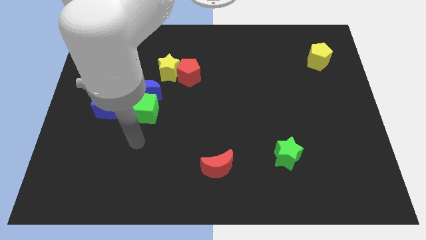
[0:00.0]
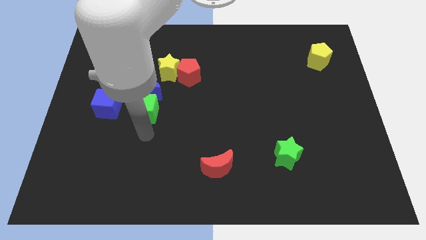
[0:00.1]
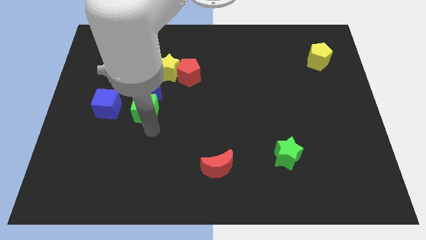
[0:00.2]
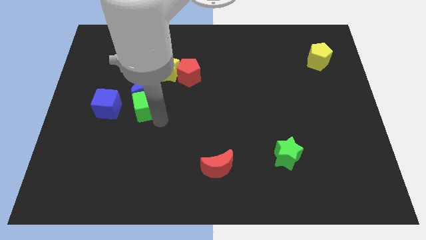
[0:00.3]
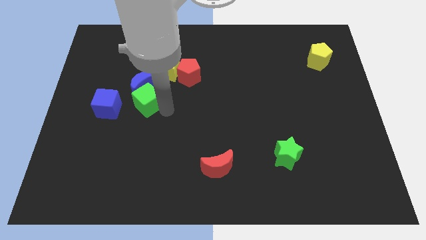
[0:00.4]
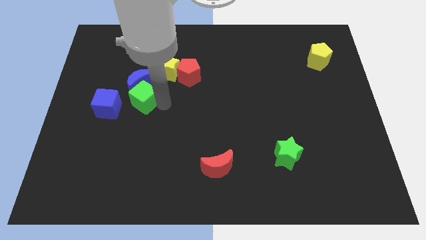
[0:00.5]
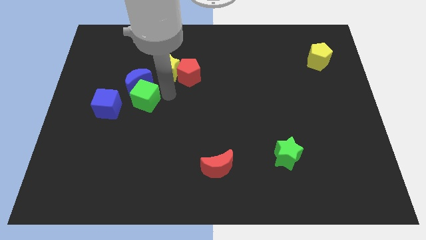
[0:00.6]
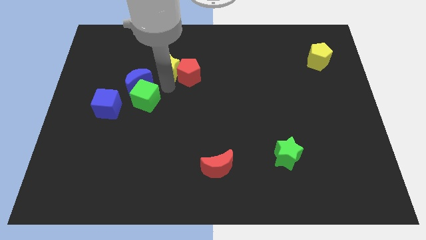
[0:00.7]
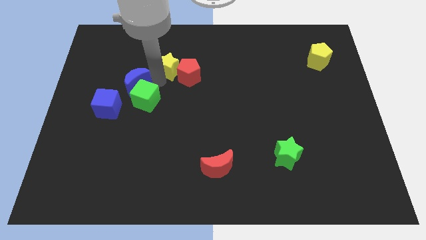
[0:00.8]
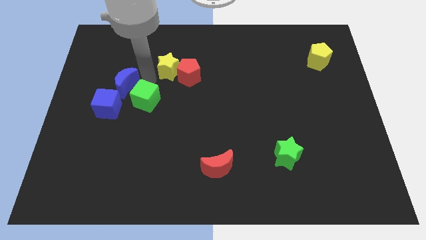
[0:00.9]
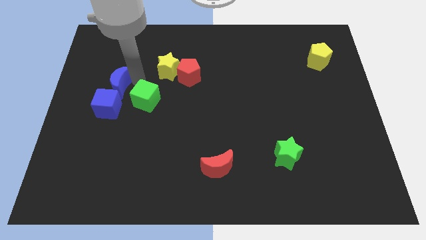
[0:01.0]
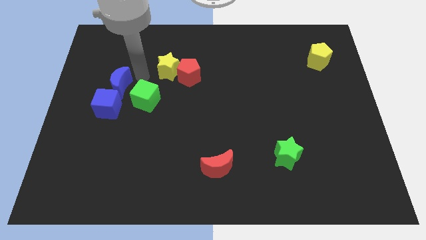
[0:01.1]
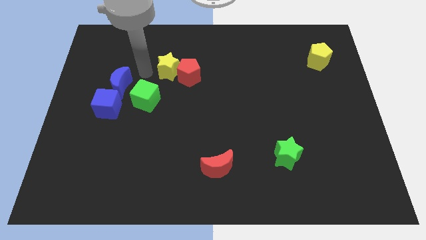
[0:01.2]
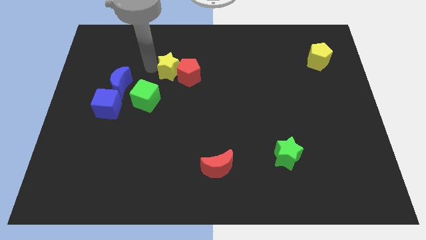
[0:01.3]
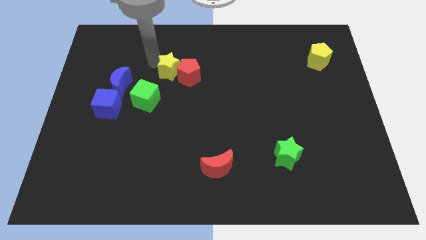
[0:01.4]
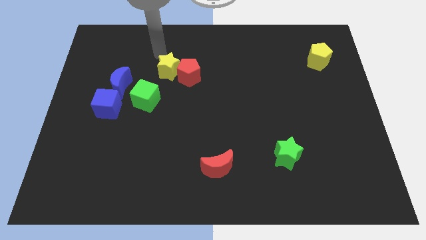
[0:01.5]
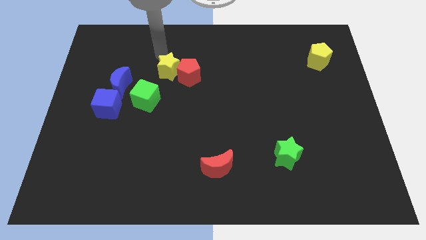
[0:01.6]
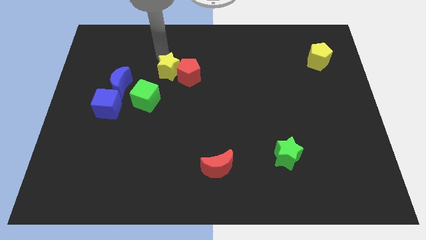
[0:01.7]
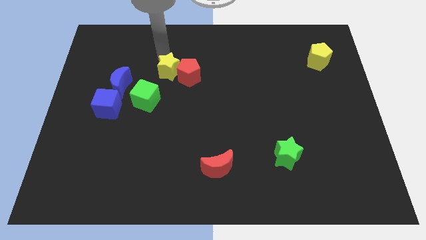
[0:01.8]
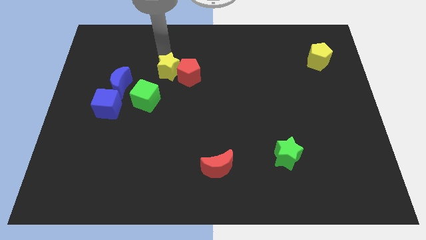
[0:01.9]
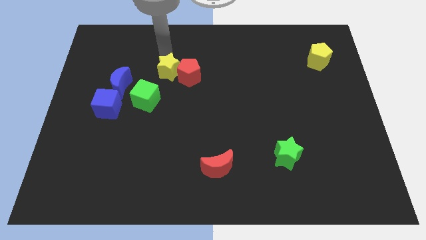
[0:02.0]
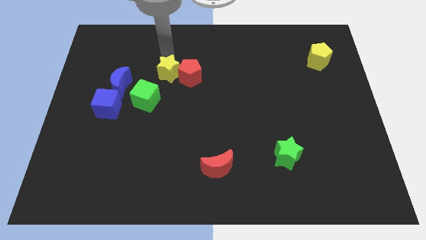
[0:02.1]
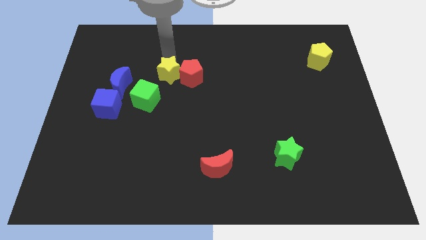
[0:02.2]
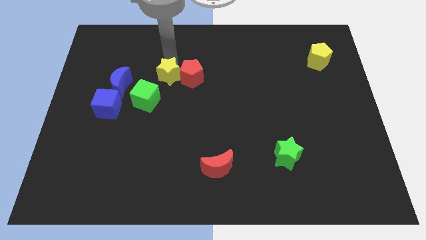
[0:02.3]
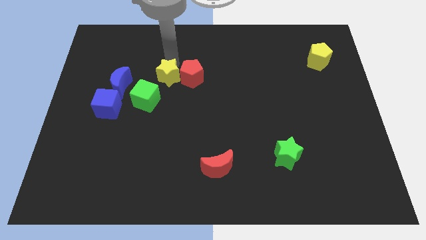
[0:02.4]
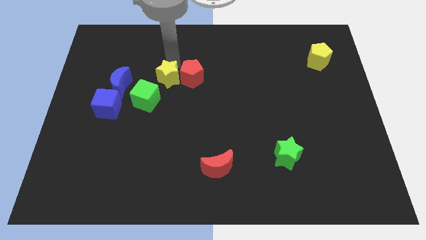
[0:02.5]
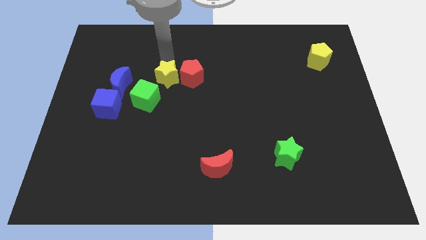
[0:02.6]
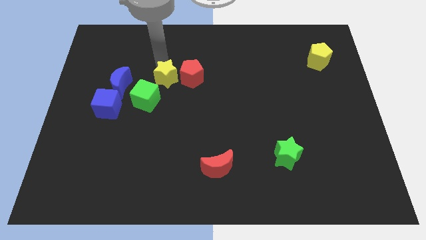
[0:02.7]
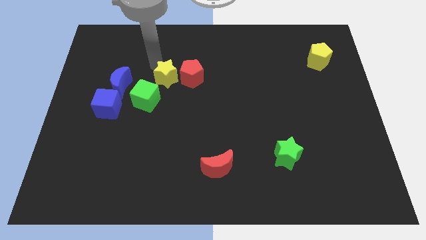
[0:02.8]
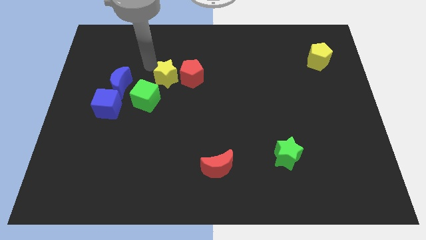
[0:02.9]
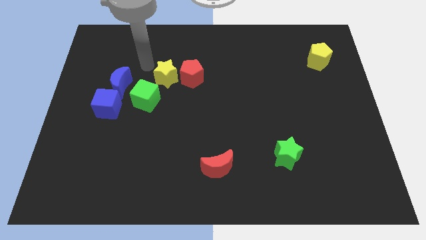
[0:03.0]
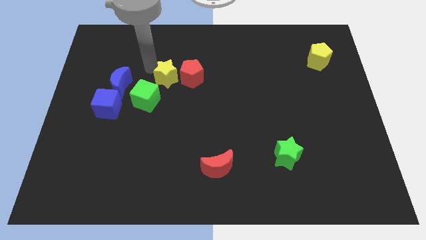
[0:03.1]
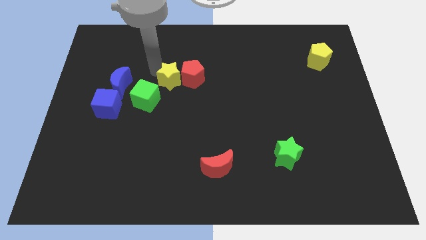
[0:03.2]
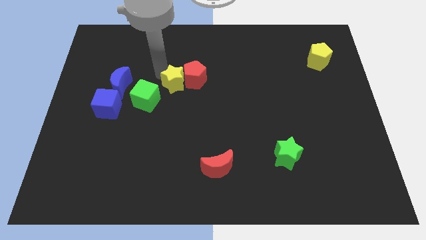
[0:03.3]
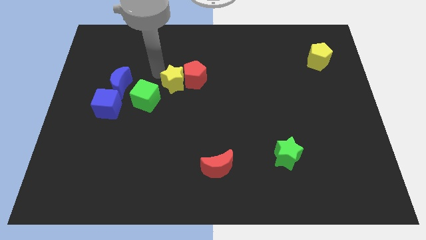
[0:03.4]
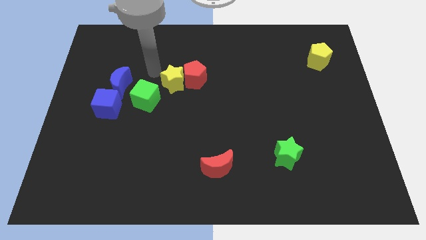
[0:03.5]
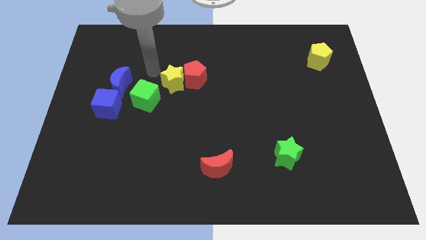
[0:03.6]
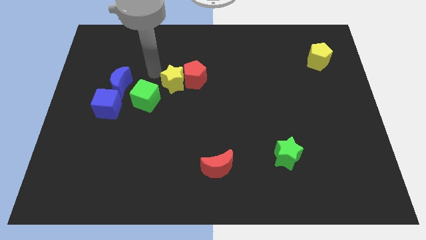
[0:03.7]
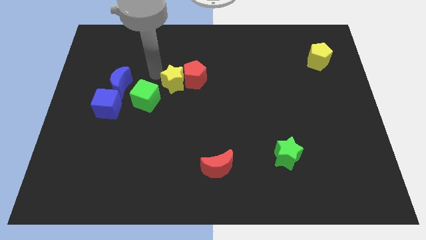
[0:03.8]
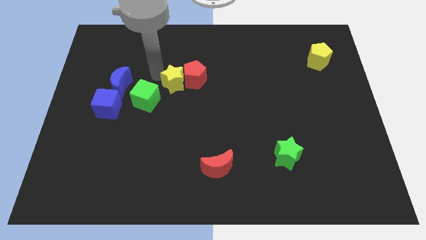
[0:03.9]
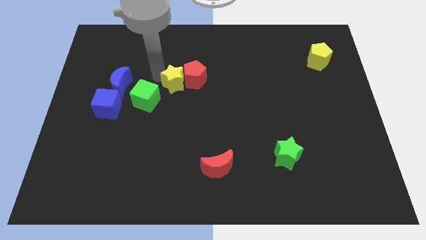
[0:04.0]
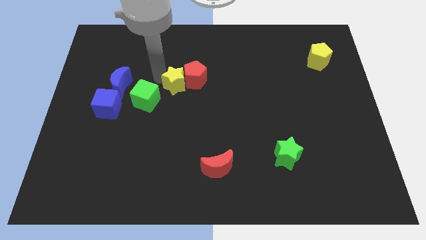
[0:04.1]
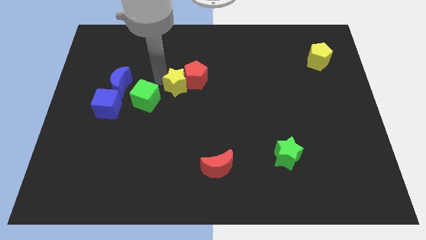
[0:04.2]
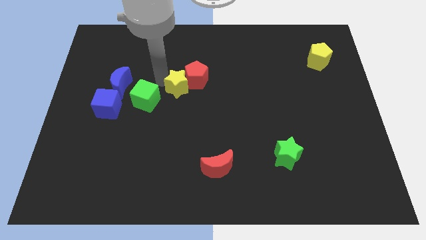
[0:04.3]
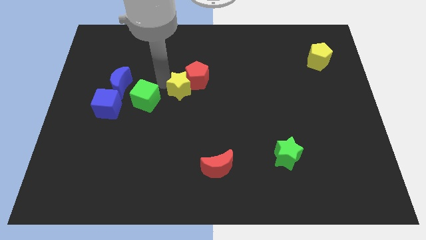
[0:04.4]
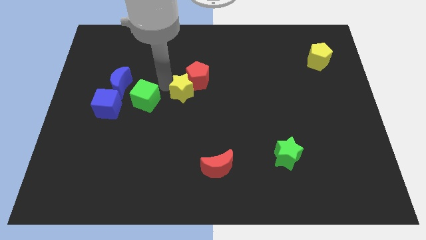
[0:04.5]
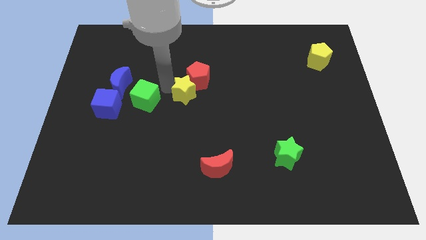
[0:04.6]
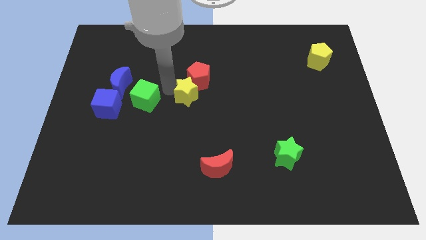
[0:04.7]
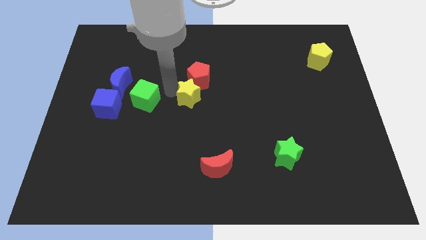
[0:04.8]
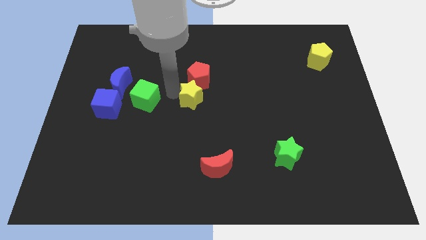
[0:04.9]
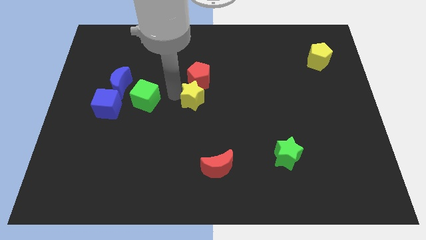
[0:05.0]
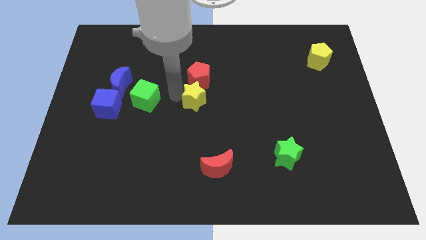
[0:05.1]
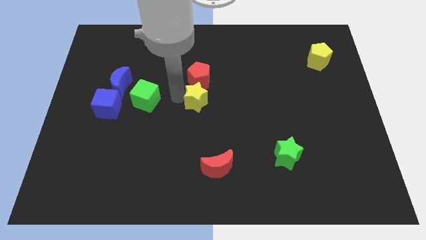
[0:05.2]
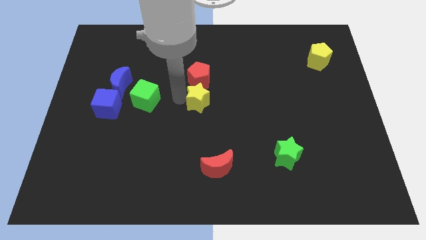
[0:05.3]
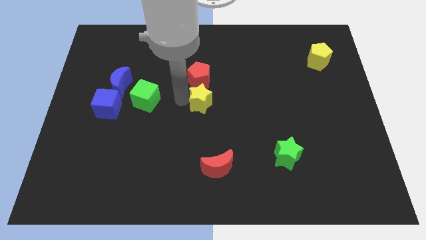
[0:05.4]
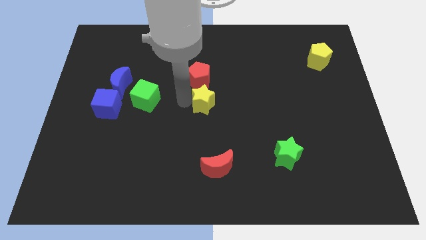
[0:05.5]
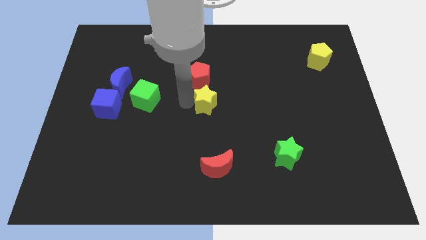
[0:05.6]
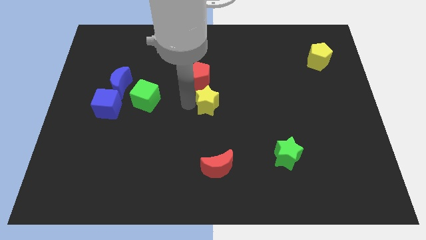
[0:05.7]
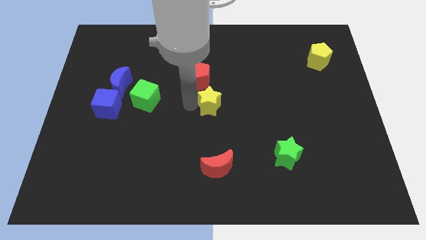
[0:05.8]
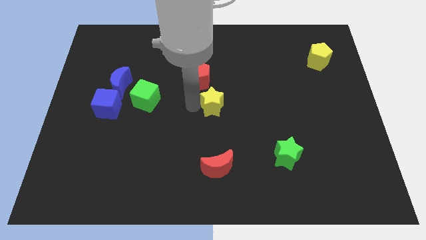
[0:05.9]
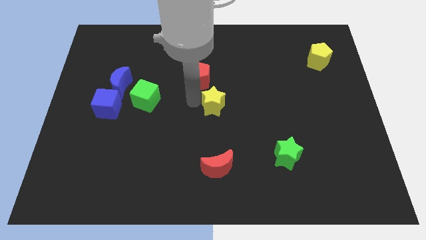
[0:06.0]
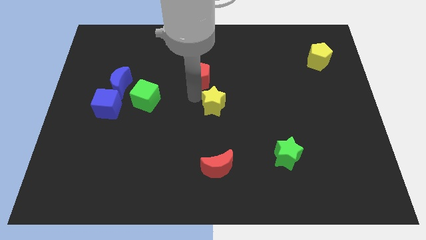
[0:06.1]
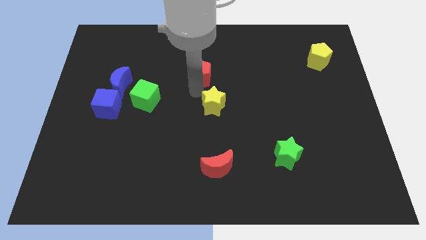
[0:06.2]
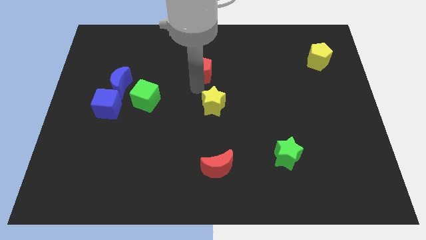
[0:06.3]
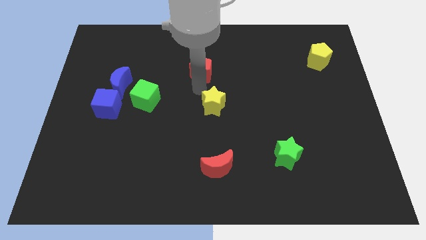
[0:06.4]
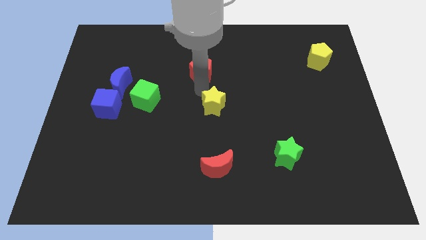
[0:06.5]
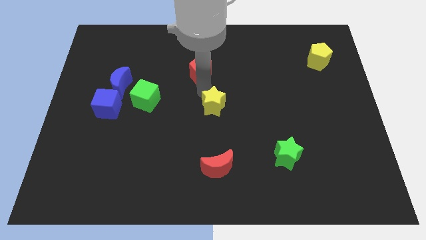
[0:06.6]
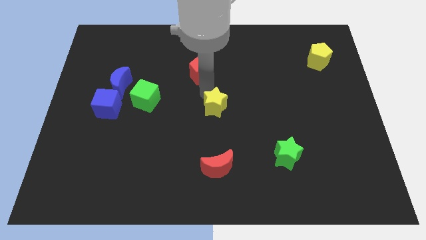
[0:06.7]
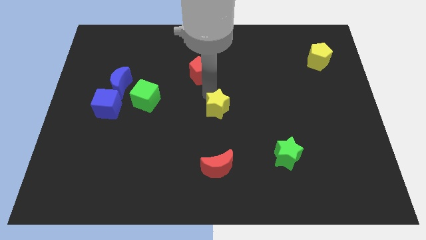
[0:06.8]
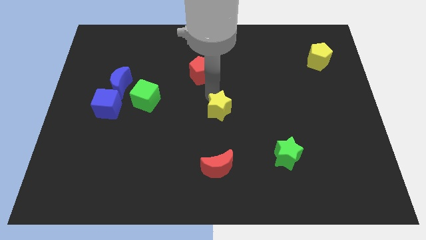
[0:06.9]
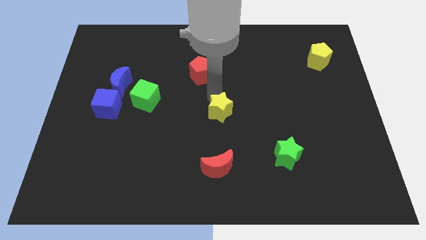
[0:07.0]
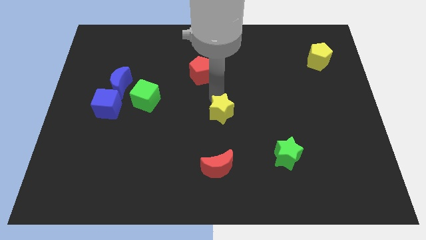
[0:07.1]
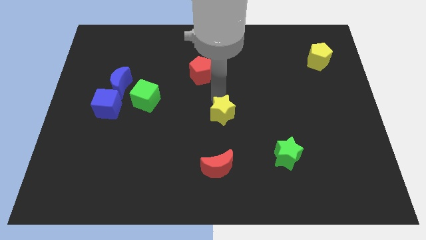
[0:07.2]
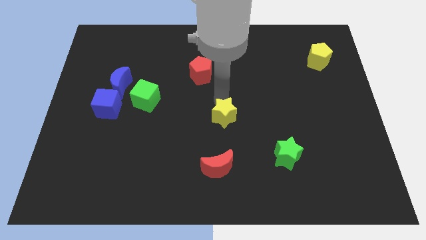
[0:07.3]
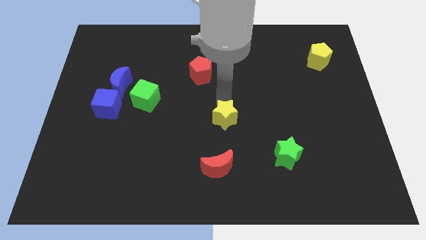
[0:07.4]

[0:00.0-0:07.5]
push the yellow star down and to the right

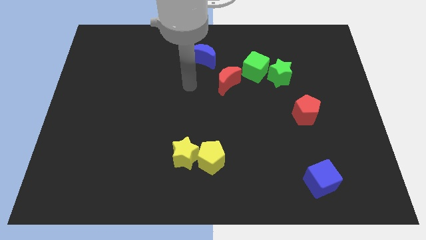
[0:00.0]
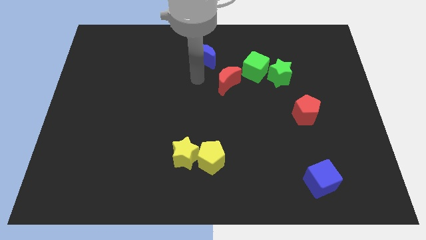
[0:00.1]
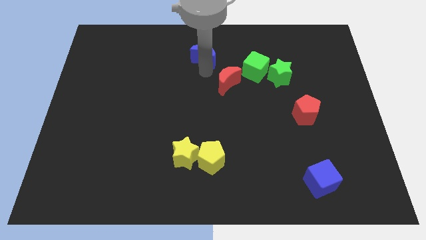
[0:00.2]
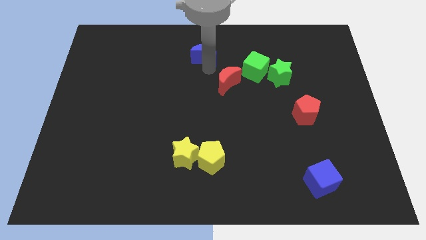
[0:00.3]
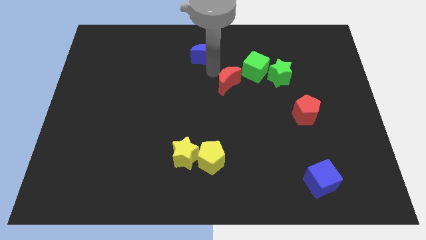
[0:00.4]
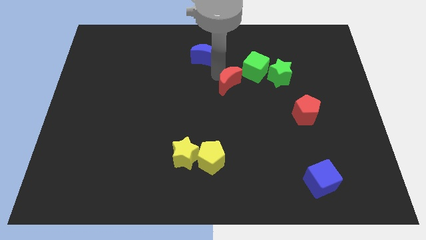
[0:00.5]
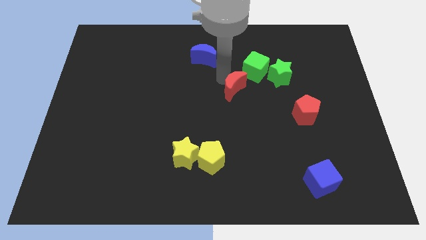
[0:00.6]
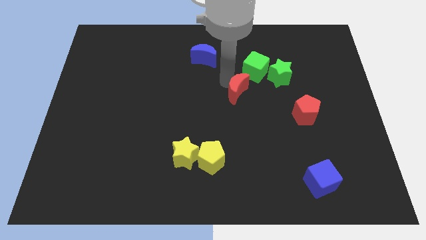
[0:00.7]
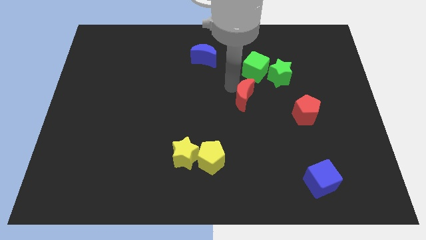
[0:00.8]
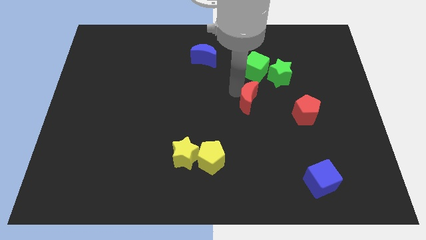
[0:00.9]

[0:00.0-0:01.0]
slightly slide the red moon down and to the right
